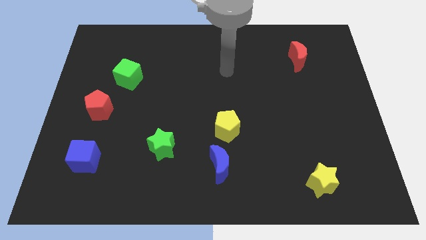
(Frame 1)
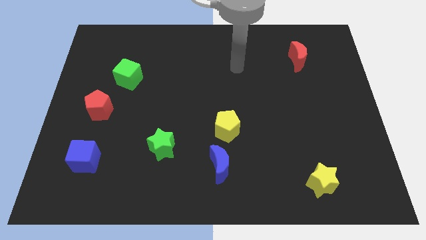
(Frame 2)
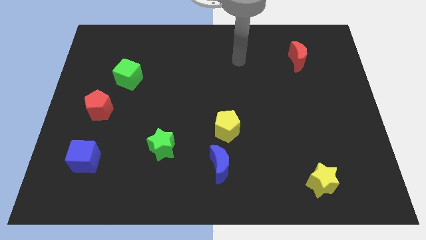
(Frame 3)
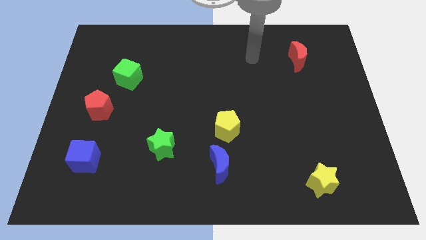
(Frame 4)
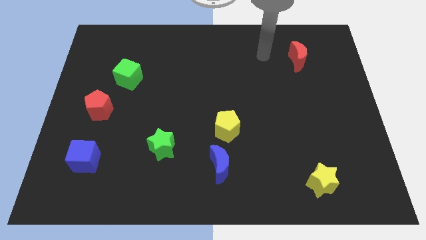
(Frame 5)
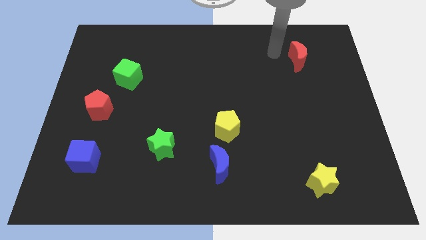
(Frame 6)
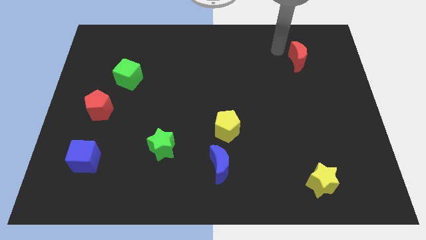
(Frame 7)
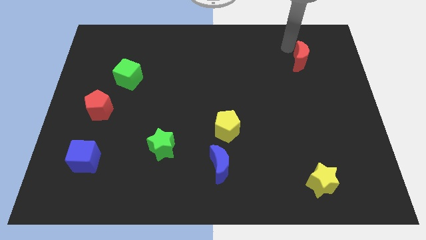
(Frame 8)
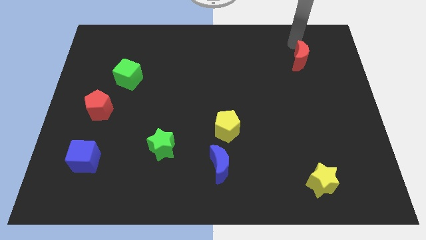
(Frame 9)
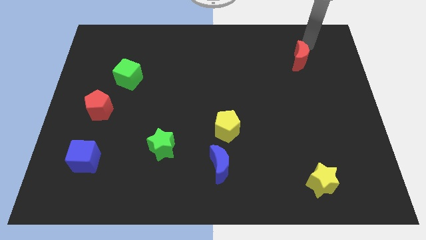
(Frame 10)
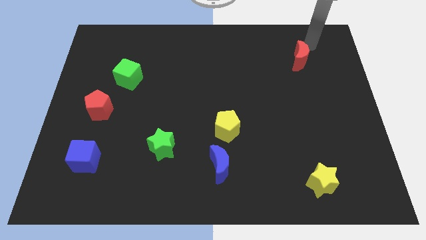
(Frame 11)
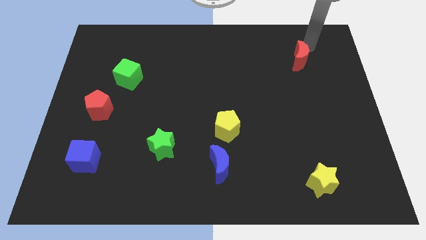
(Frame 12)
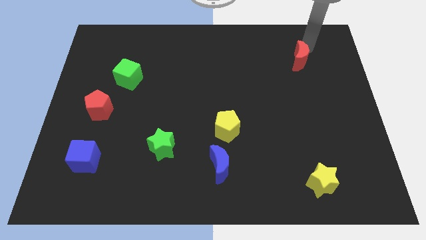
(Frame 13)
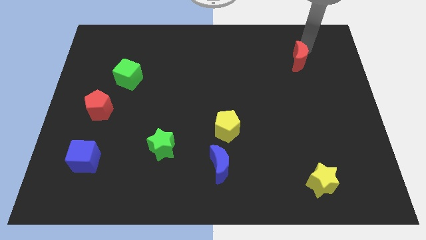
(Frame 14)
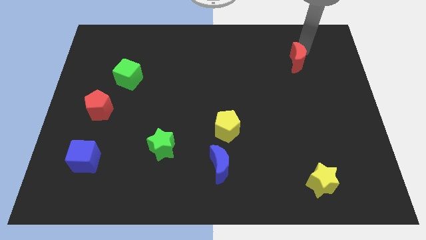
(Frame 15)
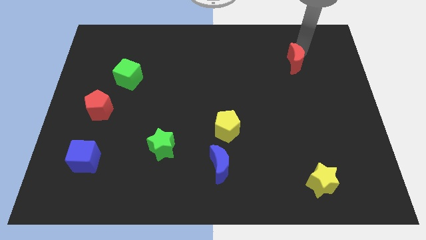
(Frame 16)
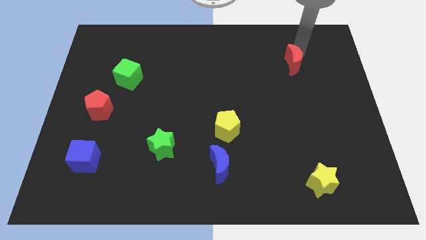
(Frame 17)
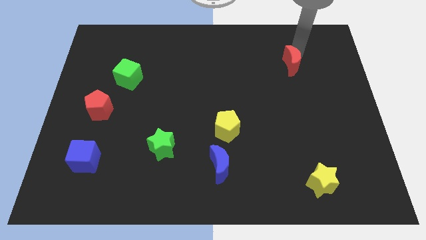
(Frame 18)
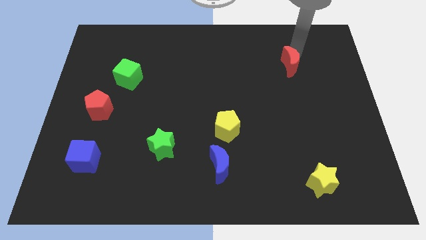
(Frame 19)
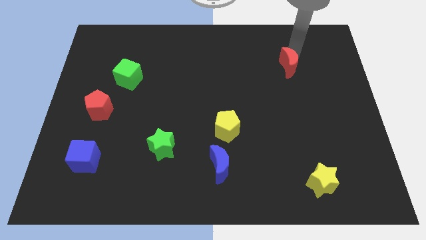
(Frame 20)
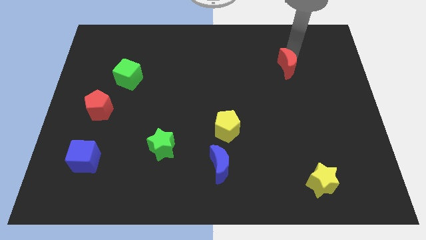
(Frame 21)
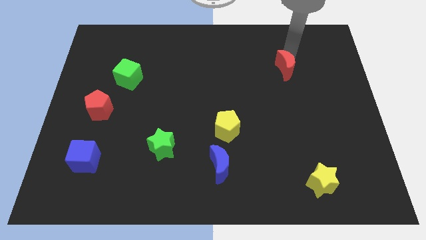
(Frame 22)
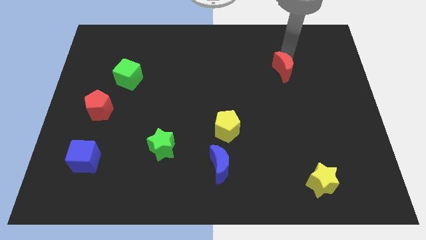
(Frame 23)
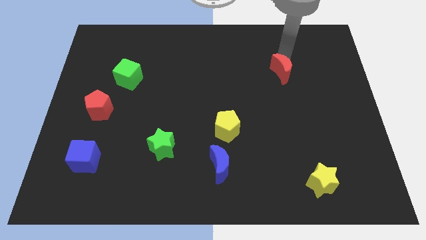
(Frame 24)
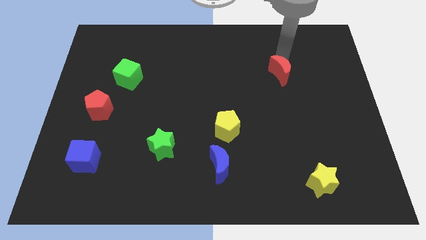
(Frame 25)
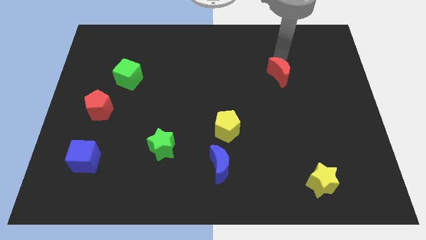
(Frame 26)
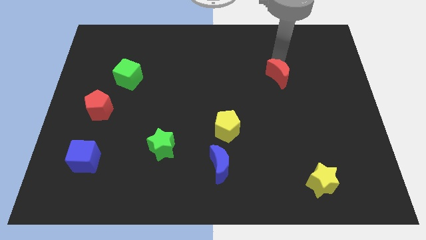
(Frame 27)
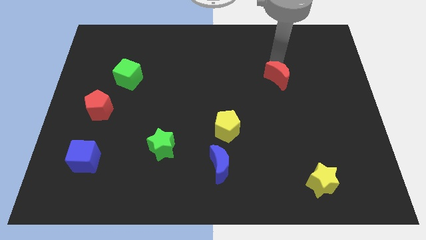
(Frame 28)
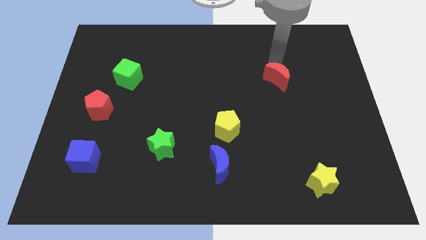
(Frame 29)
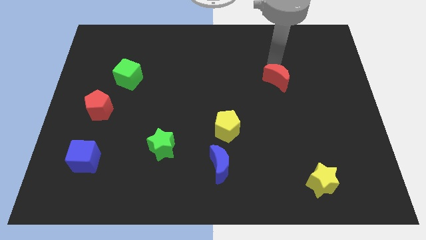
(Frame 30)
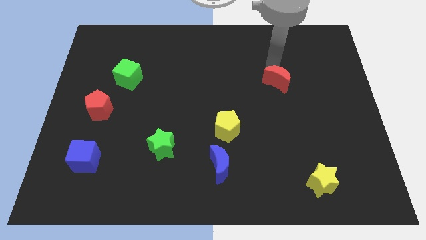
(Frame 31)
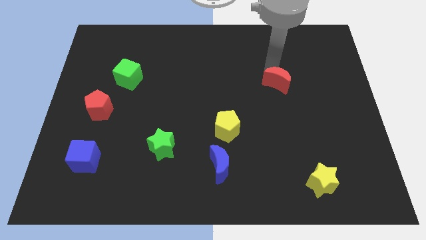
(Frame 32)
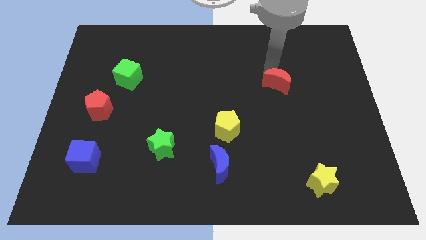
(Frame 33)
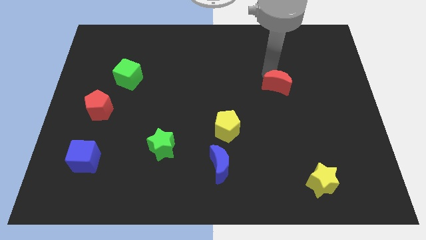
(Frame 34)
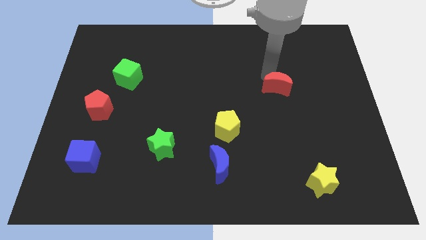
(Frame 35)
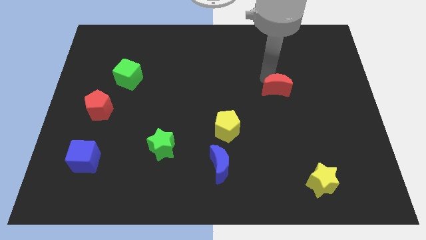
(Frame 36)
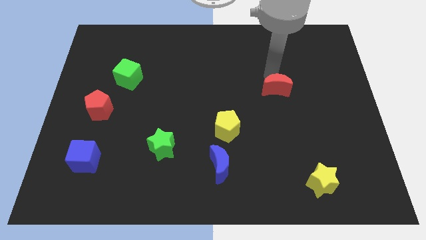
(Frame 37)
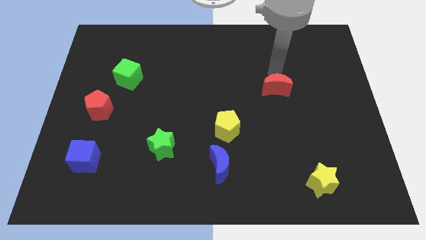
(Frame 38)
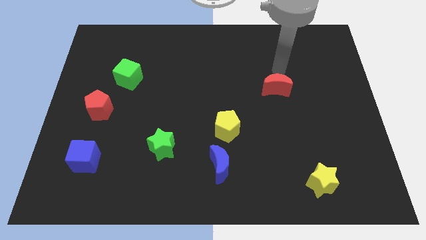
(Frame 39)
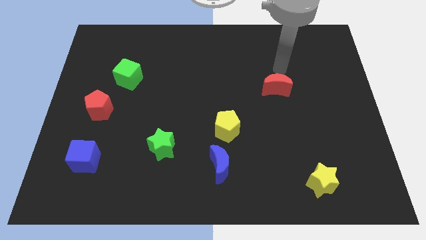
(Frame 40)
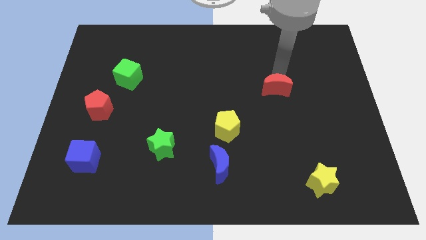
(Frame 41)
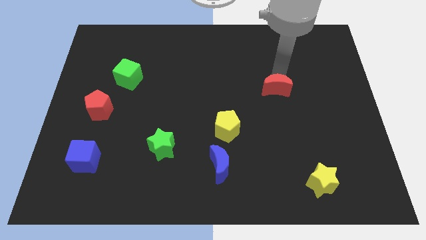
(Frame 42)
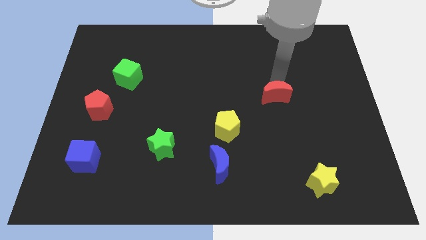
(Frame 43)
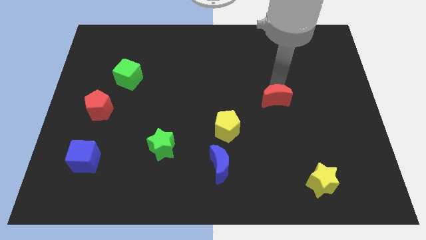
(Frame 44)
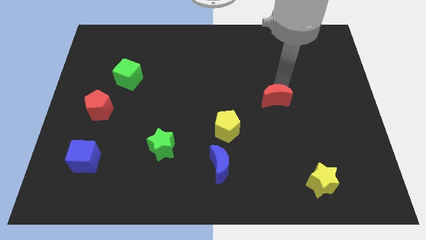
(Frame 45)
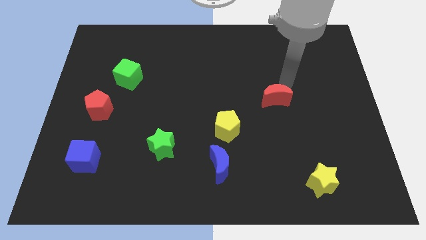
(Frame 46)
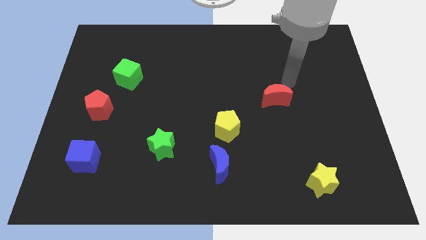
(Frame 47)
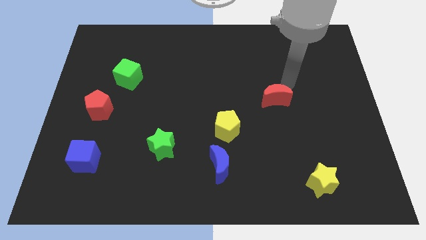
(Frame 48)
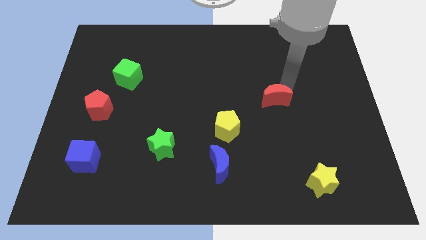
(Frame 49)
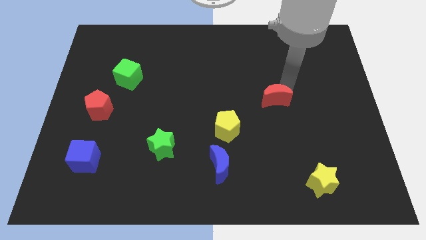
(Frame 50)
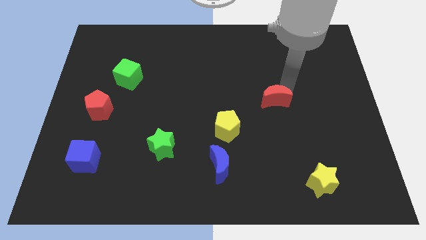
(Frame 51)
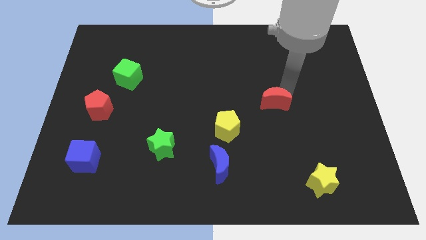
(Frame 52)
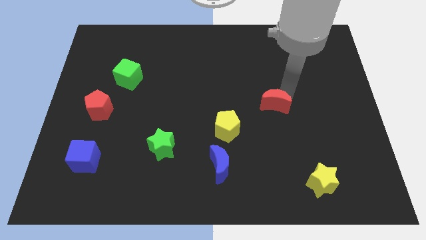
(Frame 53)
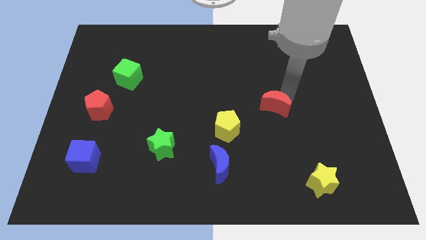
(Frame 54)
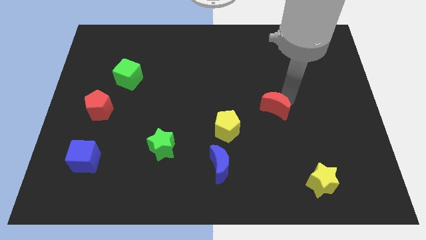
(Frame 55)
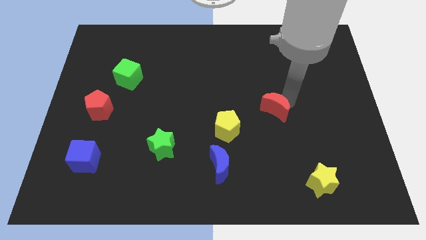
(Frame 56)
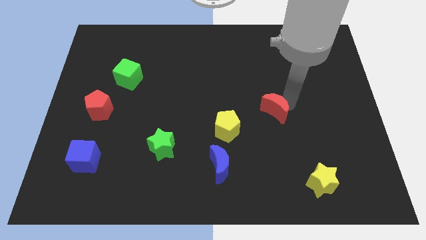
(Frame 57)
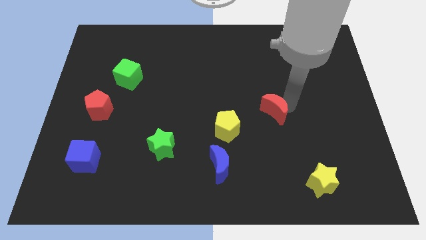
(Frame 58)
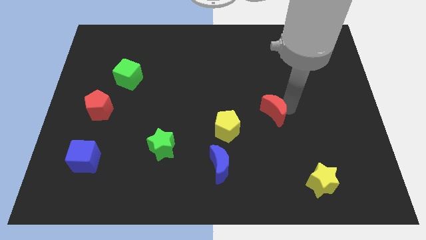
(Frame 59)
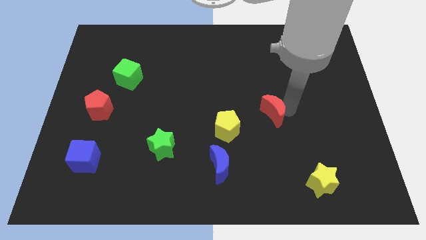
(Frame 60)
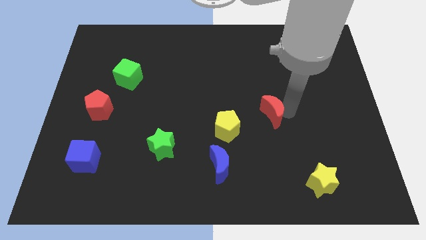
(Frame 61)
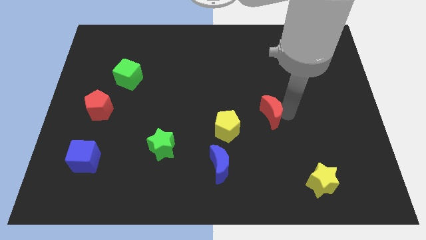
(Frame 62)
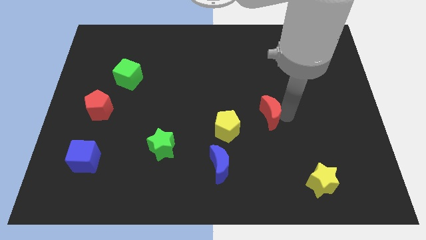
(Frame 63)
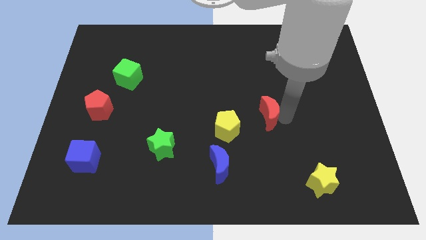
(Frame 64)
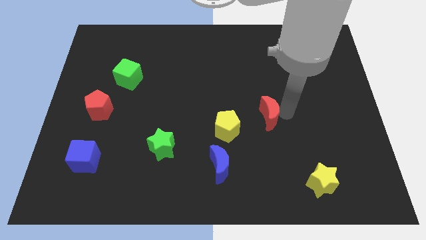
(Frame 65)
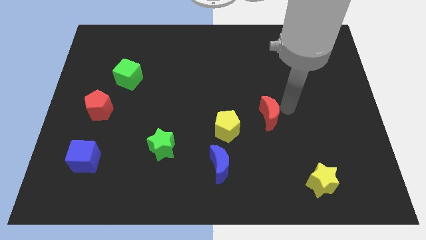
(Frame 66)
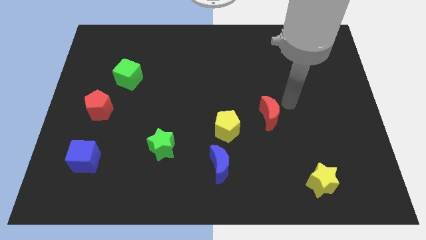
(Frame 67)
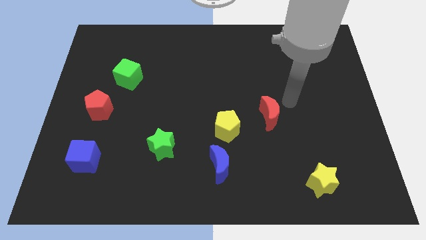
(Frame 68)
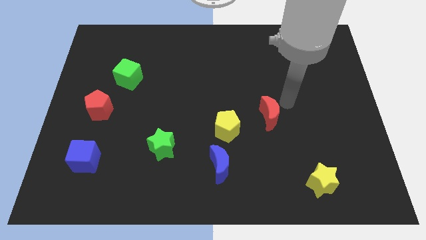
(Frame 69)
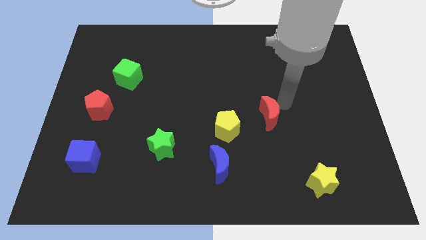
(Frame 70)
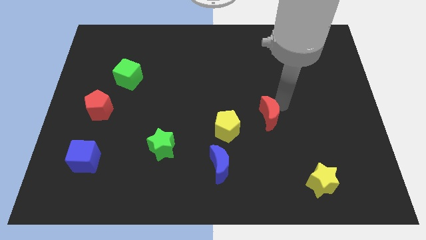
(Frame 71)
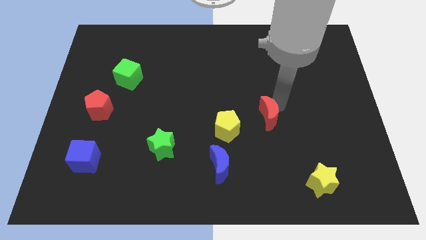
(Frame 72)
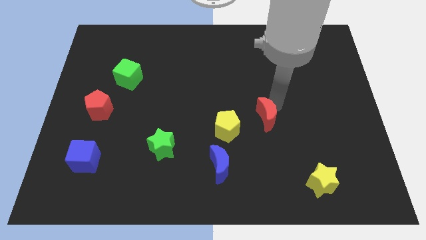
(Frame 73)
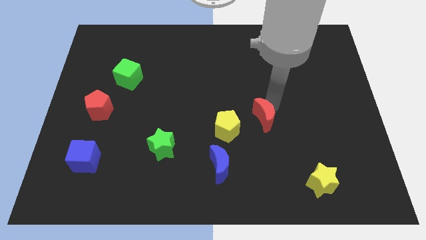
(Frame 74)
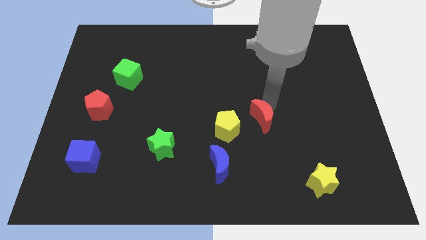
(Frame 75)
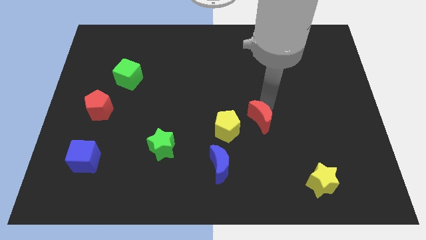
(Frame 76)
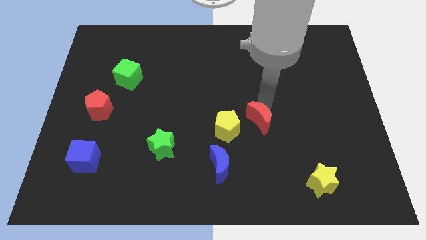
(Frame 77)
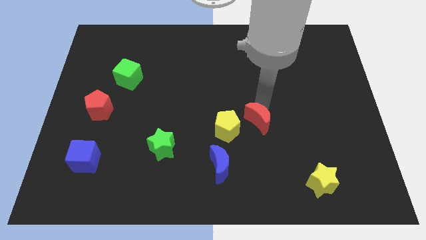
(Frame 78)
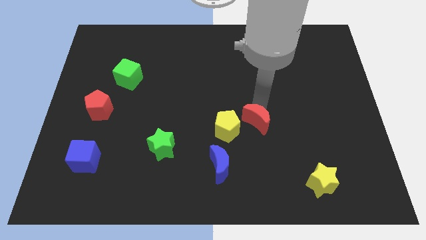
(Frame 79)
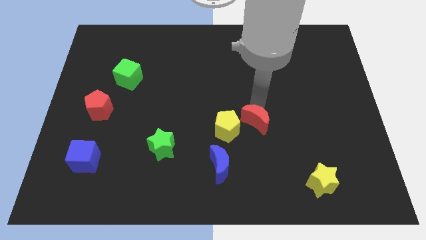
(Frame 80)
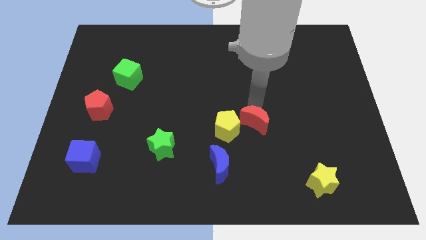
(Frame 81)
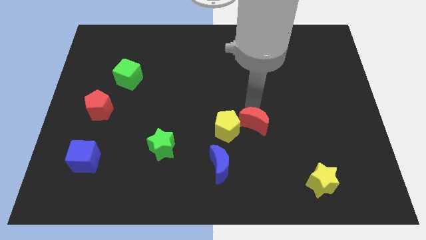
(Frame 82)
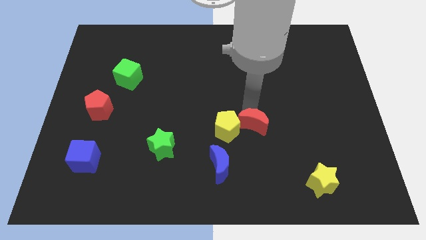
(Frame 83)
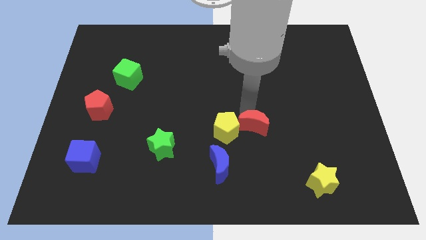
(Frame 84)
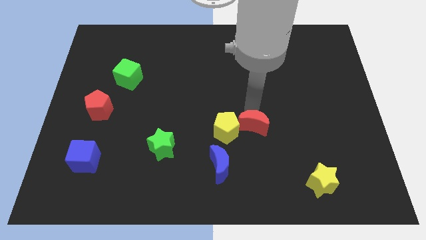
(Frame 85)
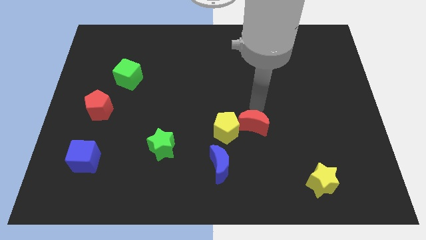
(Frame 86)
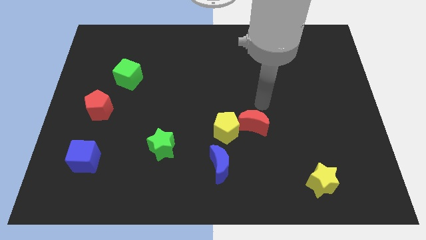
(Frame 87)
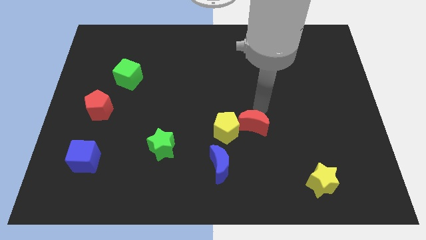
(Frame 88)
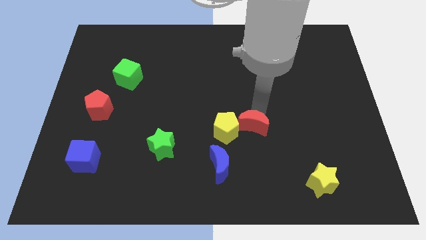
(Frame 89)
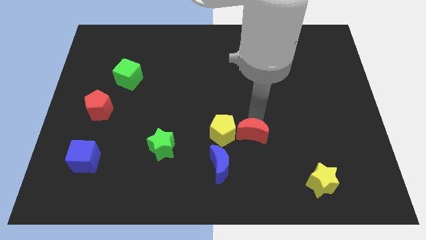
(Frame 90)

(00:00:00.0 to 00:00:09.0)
push the red moon diagonally up and to the right of the blue moon
